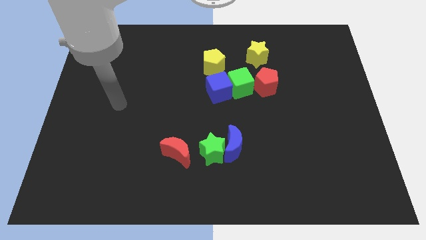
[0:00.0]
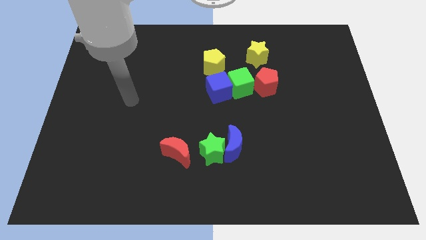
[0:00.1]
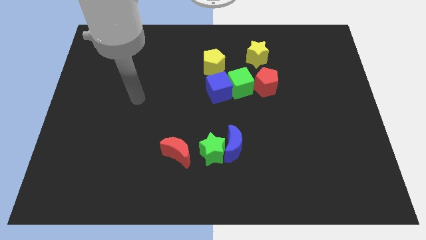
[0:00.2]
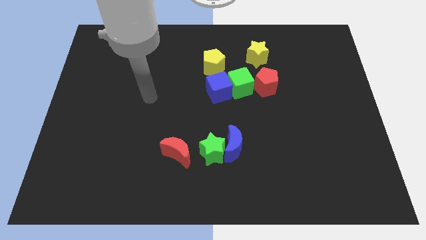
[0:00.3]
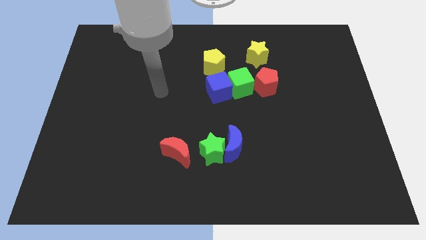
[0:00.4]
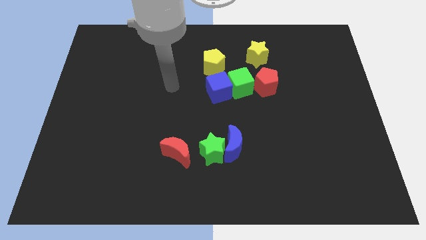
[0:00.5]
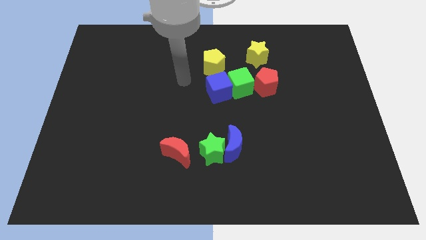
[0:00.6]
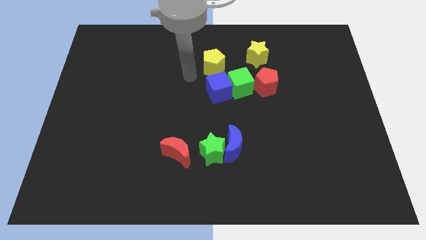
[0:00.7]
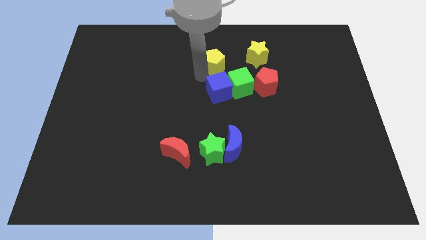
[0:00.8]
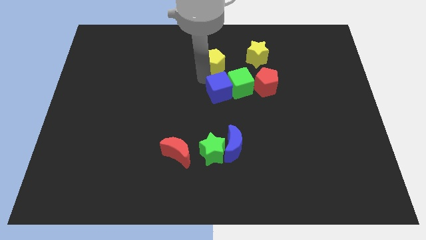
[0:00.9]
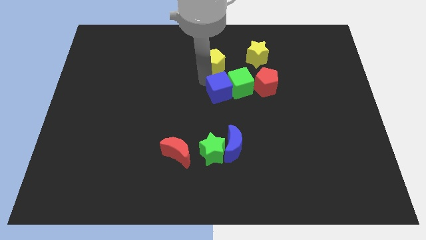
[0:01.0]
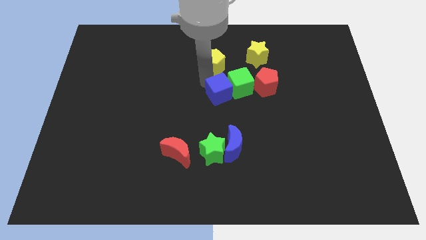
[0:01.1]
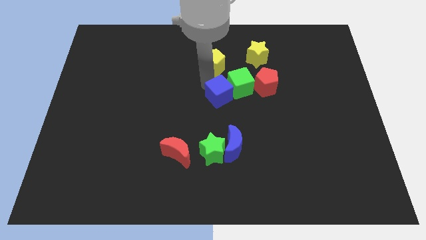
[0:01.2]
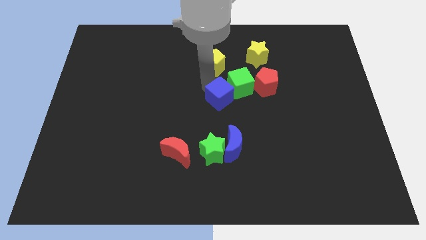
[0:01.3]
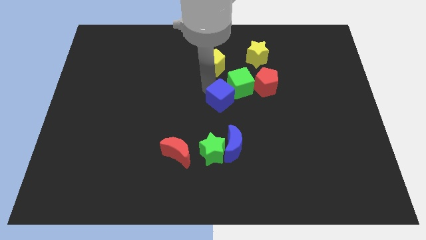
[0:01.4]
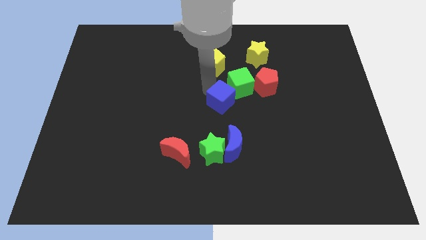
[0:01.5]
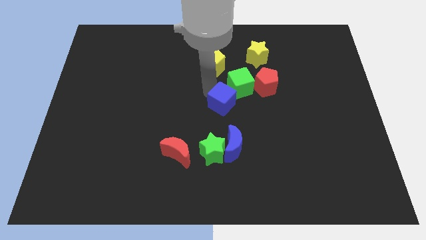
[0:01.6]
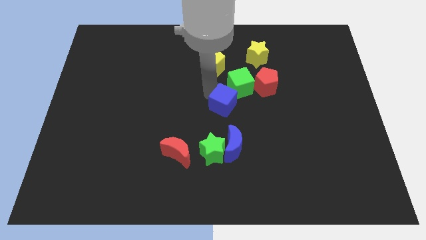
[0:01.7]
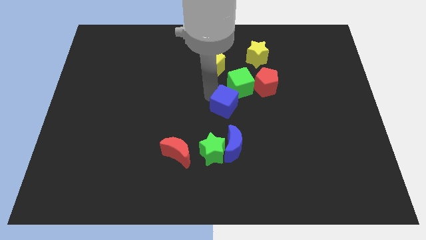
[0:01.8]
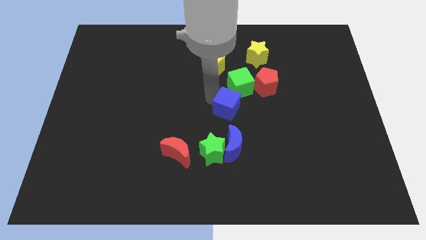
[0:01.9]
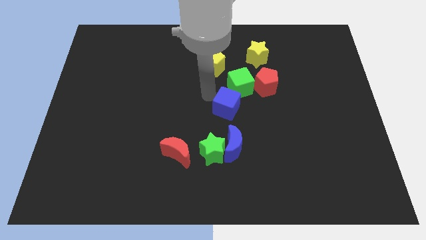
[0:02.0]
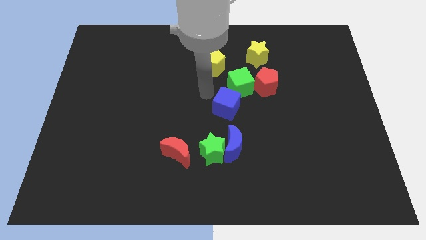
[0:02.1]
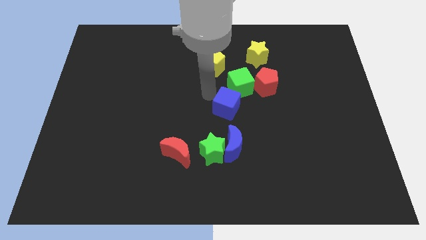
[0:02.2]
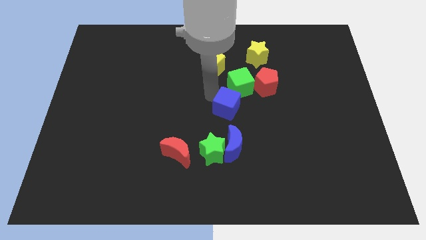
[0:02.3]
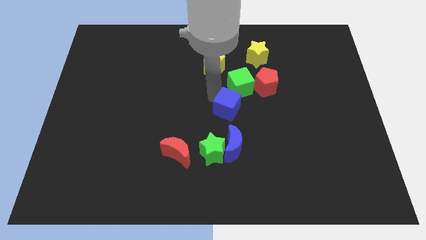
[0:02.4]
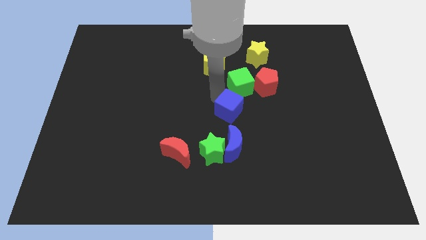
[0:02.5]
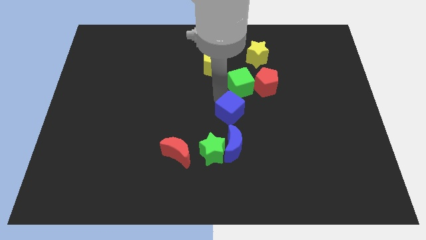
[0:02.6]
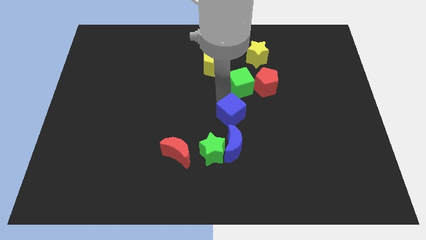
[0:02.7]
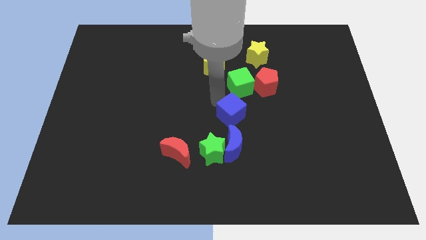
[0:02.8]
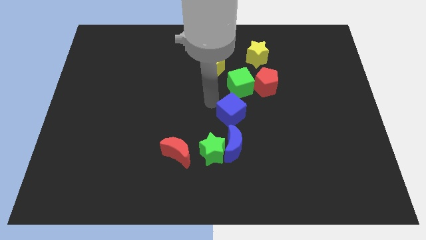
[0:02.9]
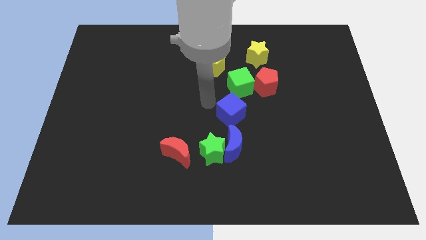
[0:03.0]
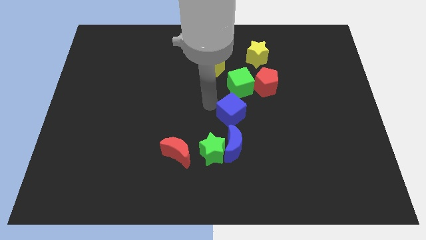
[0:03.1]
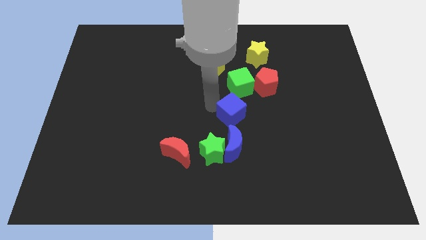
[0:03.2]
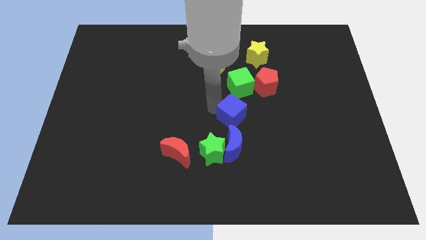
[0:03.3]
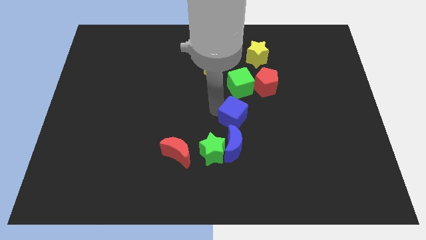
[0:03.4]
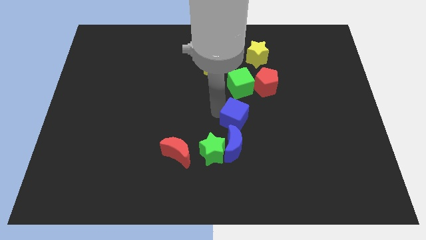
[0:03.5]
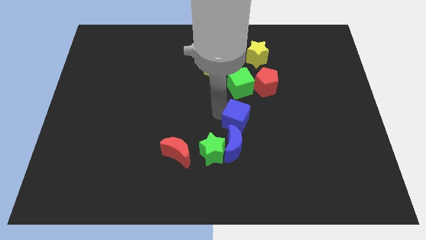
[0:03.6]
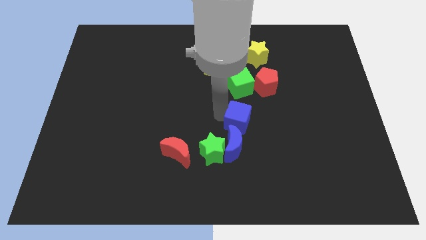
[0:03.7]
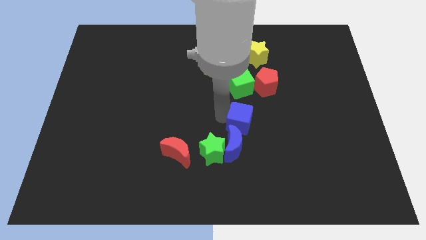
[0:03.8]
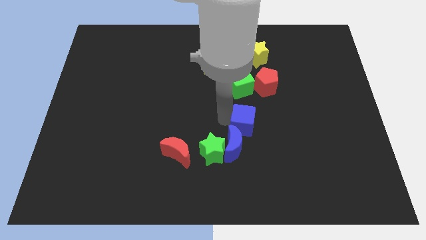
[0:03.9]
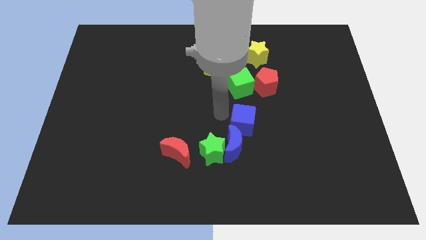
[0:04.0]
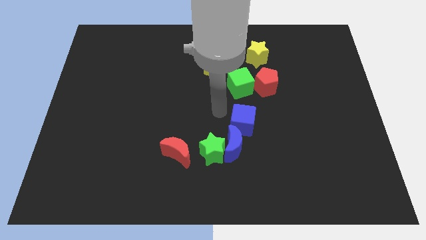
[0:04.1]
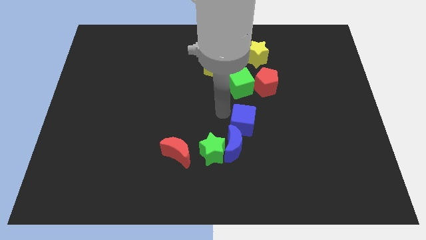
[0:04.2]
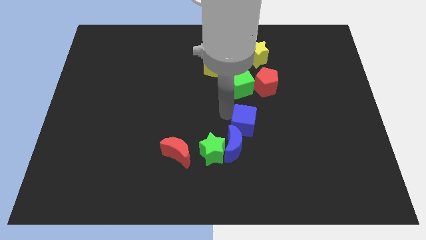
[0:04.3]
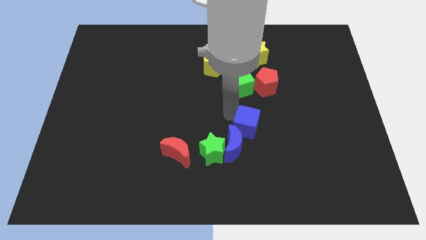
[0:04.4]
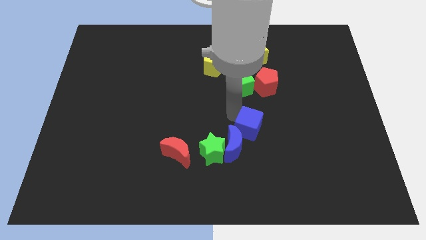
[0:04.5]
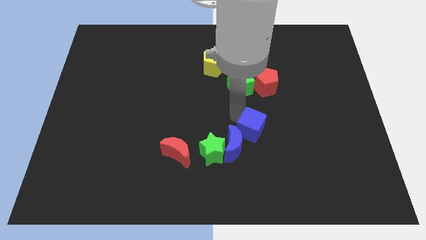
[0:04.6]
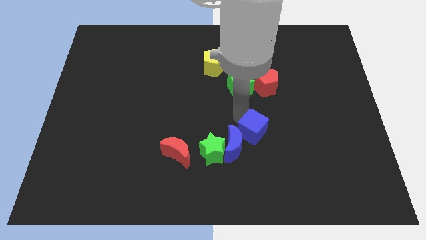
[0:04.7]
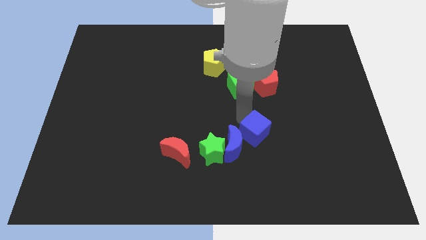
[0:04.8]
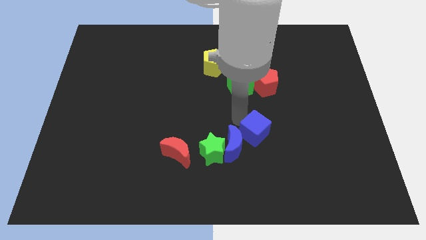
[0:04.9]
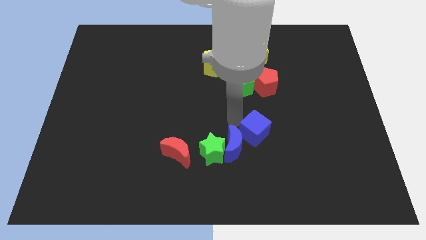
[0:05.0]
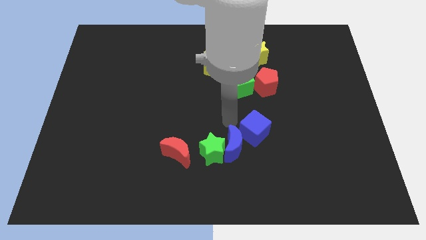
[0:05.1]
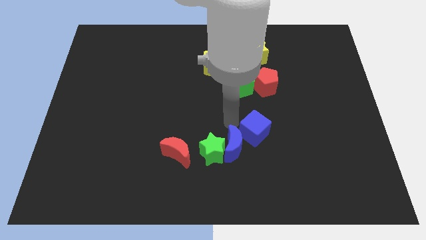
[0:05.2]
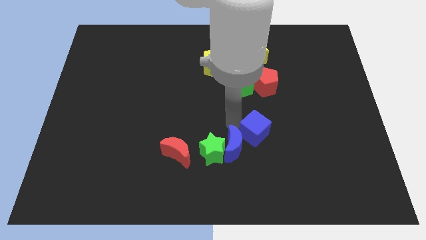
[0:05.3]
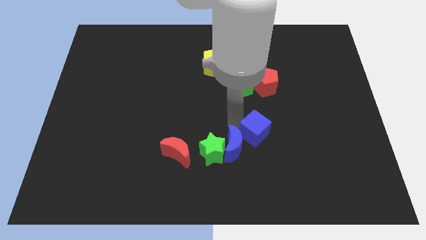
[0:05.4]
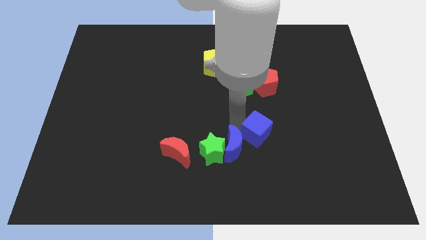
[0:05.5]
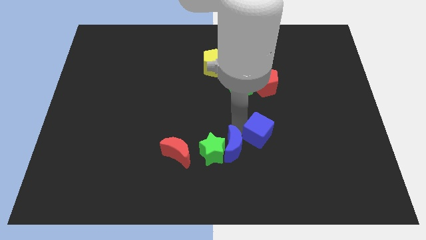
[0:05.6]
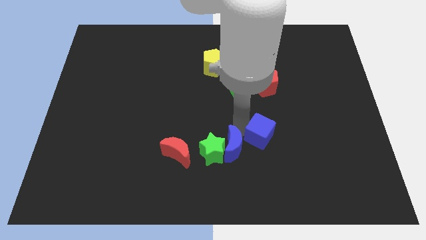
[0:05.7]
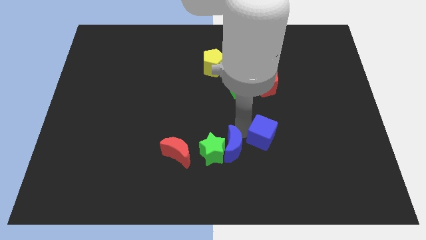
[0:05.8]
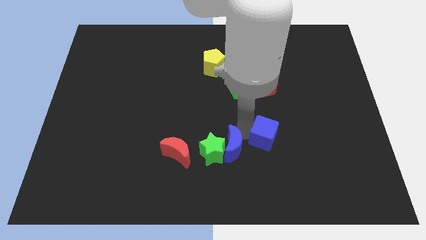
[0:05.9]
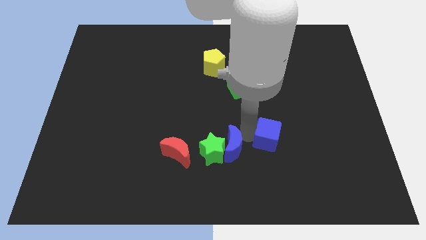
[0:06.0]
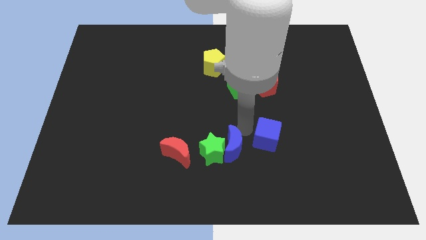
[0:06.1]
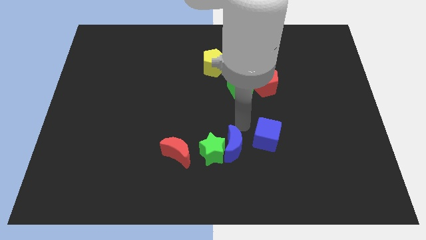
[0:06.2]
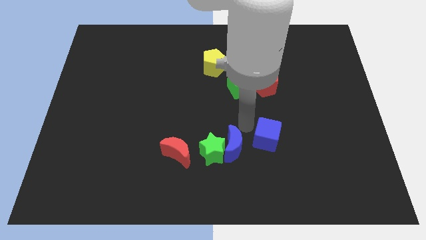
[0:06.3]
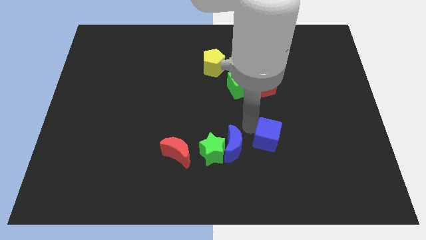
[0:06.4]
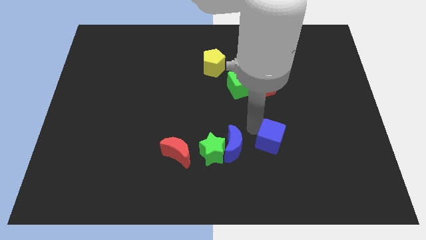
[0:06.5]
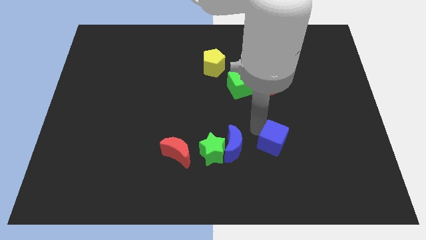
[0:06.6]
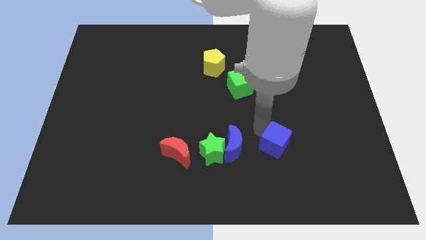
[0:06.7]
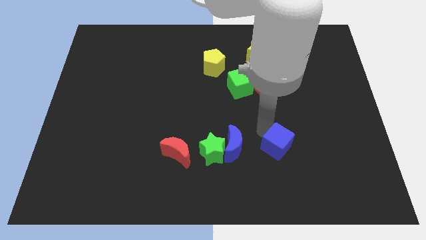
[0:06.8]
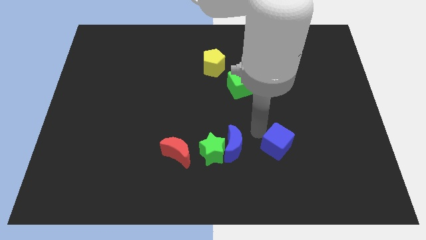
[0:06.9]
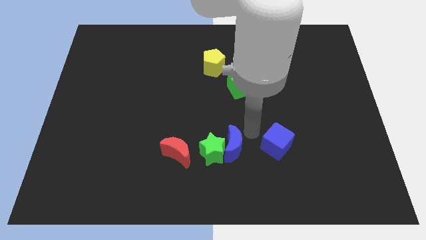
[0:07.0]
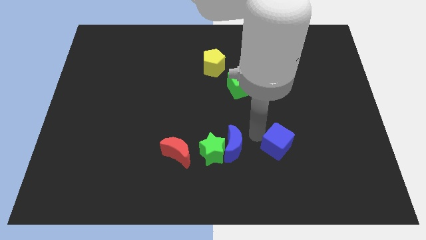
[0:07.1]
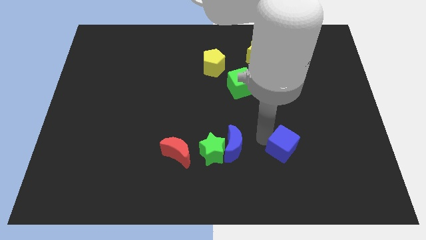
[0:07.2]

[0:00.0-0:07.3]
push the blue cube downwards and right

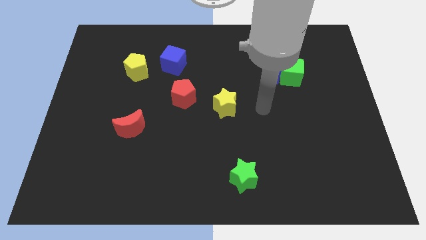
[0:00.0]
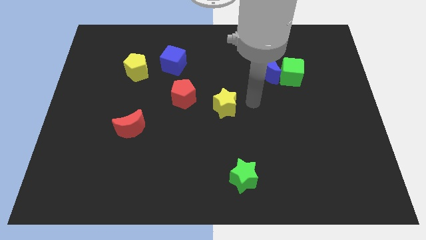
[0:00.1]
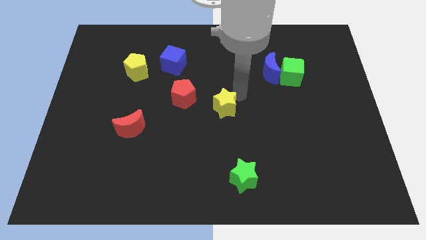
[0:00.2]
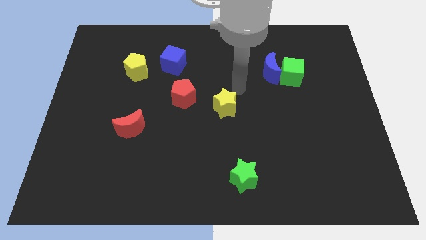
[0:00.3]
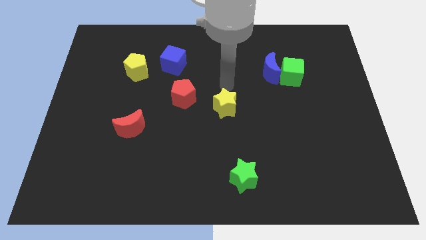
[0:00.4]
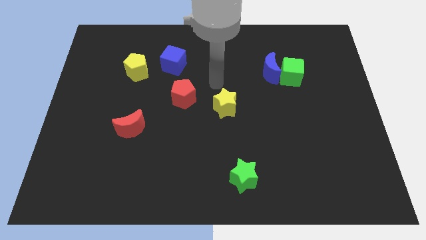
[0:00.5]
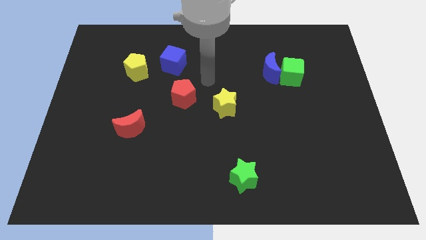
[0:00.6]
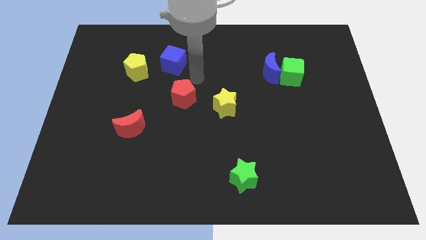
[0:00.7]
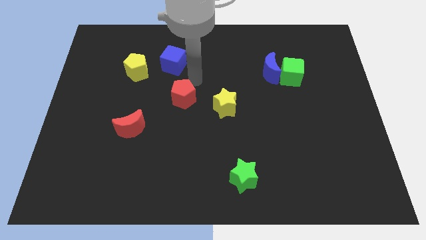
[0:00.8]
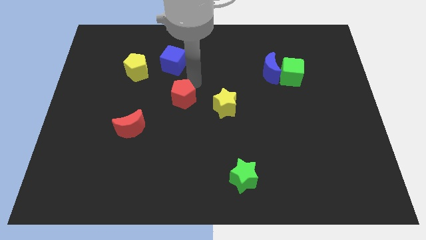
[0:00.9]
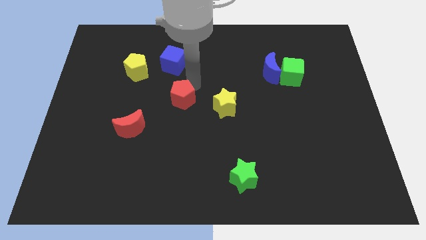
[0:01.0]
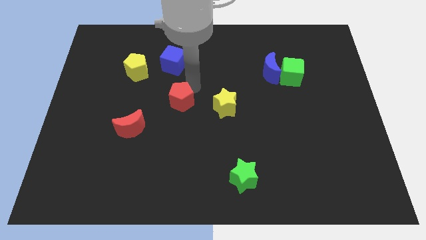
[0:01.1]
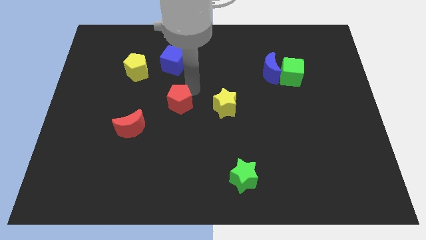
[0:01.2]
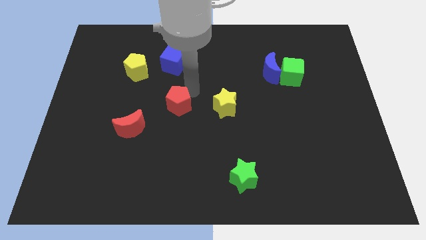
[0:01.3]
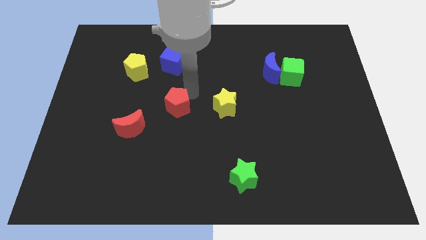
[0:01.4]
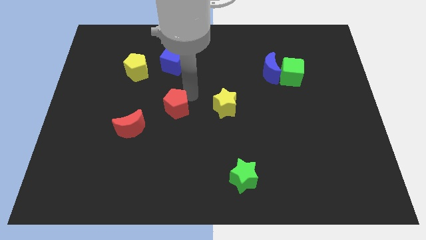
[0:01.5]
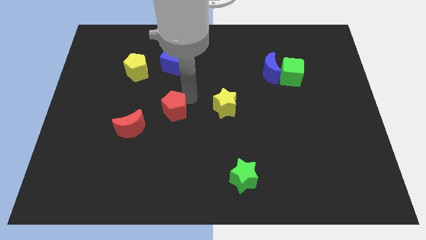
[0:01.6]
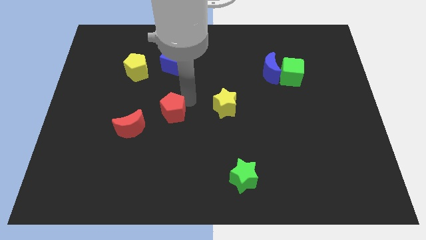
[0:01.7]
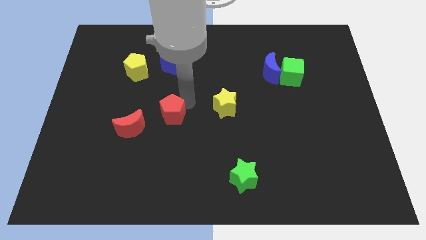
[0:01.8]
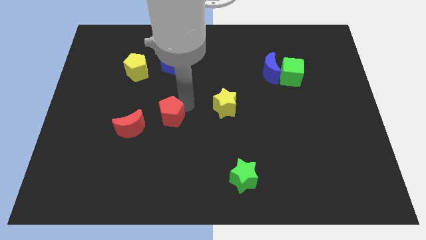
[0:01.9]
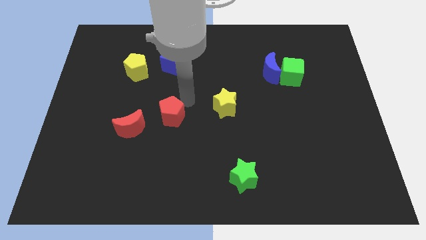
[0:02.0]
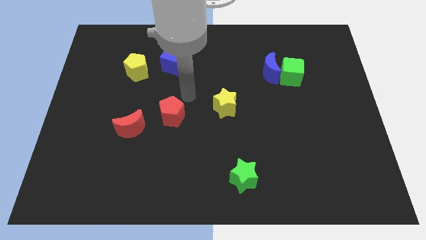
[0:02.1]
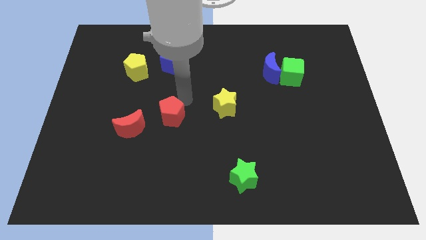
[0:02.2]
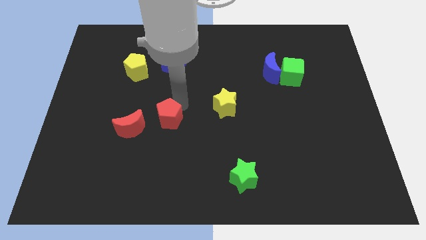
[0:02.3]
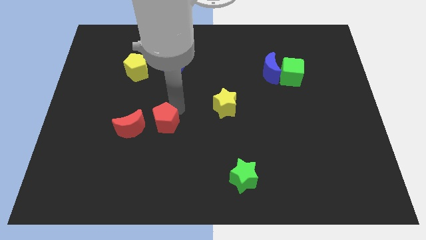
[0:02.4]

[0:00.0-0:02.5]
push the red pentagon somewhat downwards and left
